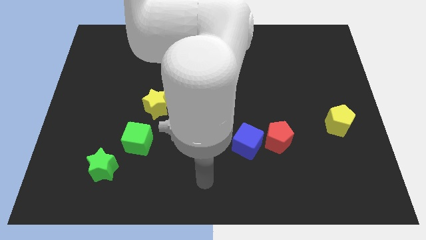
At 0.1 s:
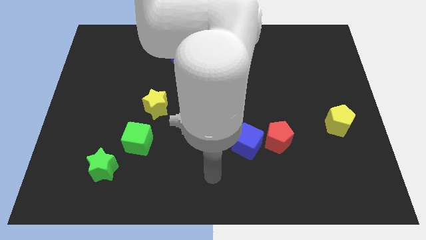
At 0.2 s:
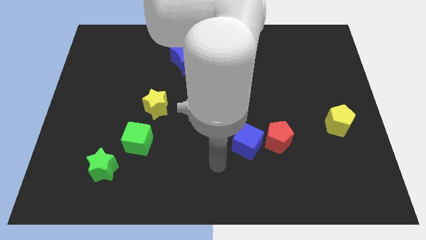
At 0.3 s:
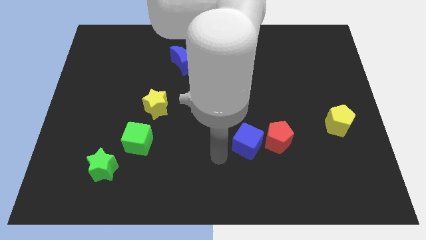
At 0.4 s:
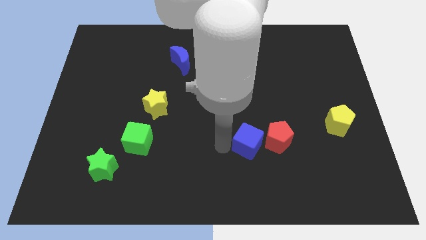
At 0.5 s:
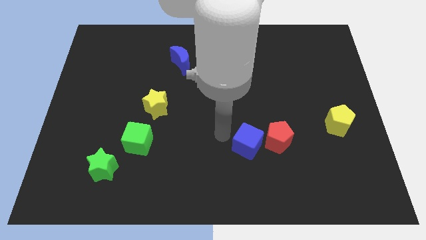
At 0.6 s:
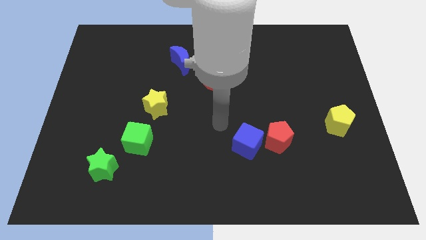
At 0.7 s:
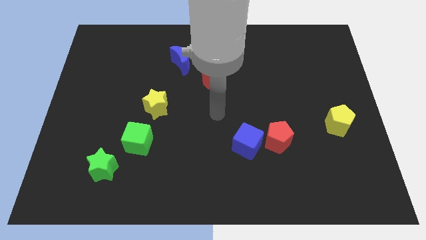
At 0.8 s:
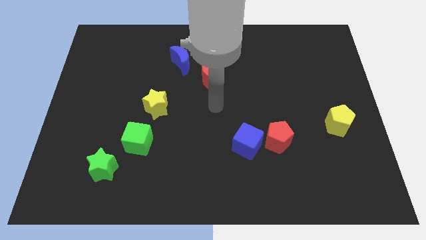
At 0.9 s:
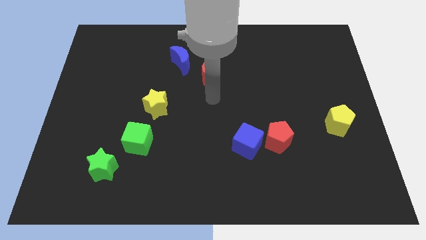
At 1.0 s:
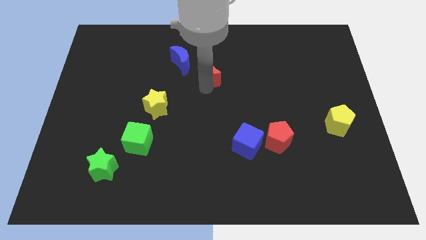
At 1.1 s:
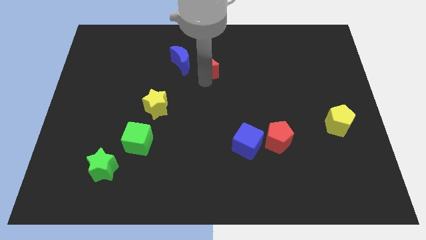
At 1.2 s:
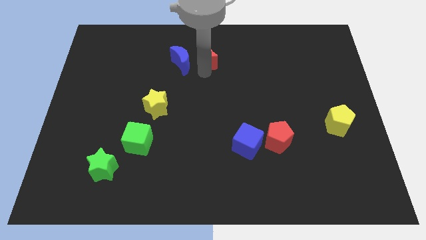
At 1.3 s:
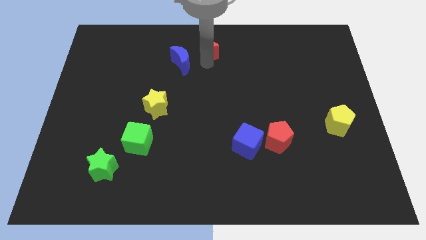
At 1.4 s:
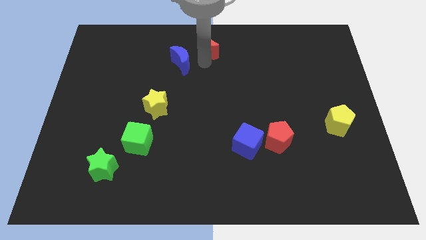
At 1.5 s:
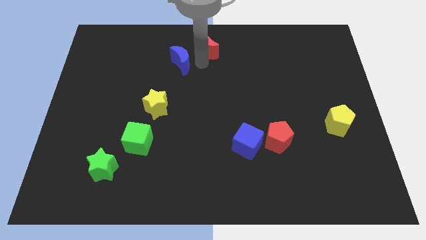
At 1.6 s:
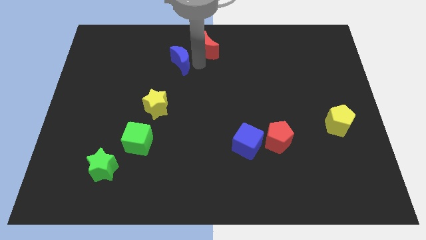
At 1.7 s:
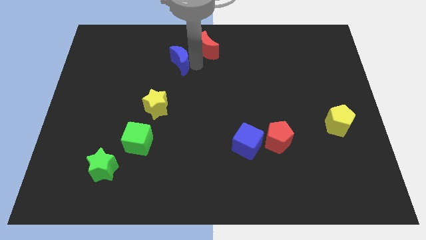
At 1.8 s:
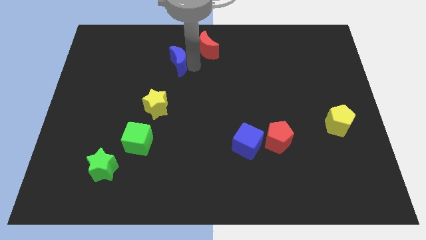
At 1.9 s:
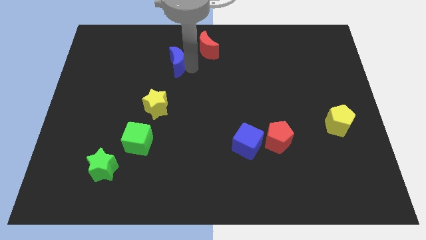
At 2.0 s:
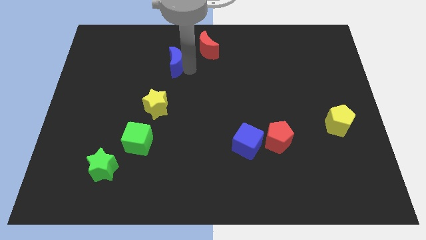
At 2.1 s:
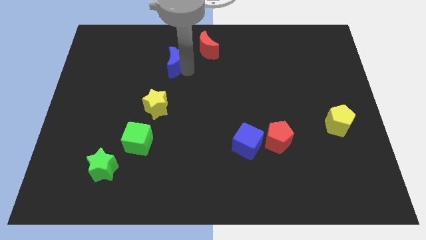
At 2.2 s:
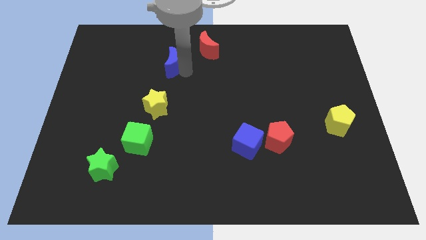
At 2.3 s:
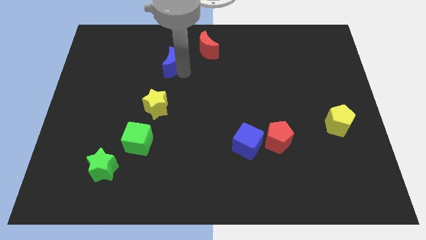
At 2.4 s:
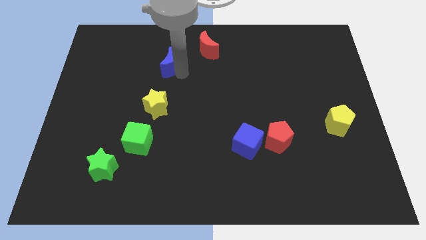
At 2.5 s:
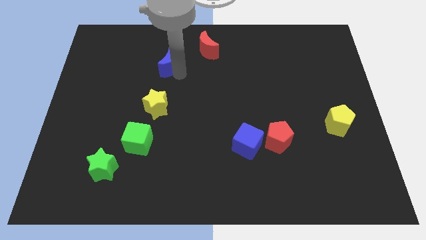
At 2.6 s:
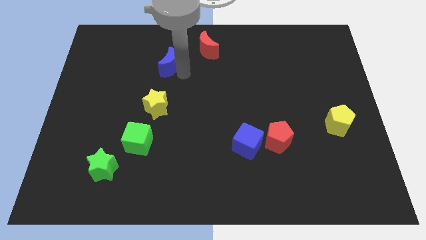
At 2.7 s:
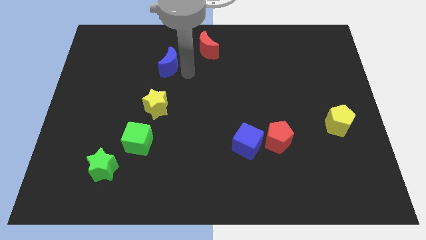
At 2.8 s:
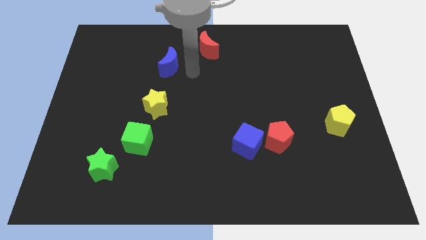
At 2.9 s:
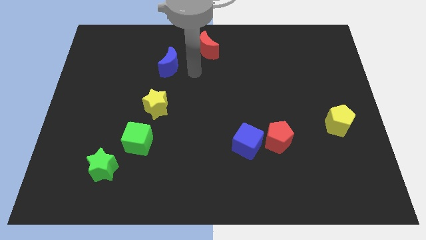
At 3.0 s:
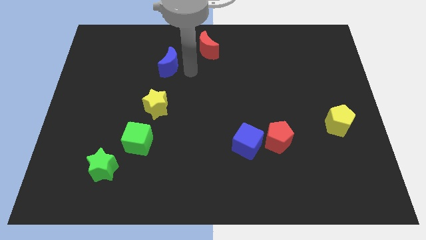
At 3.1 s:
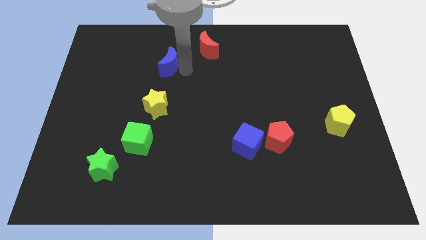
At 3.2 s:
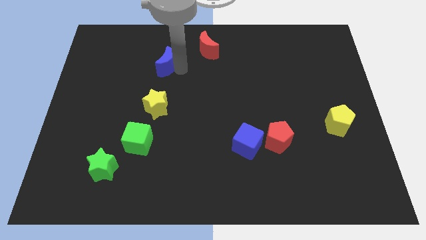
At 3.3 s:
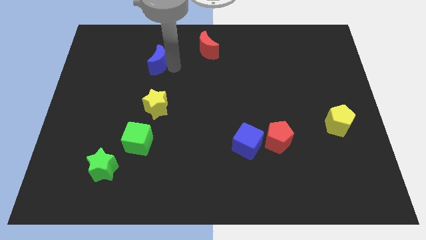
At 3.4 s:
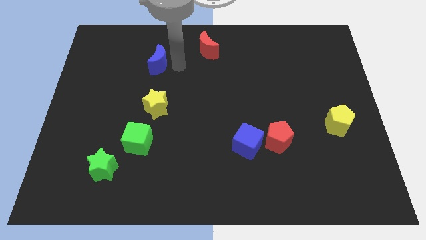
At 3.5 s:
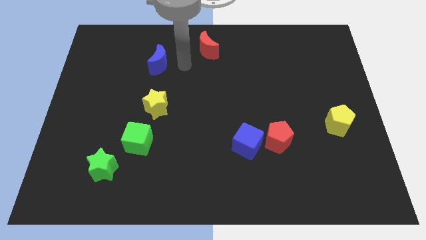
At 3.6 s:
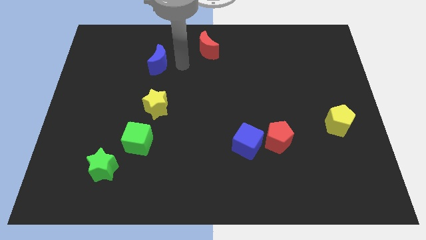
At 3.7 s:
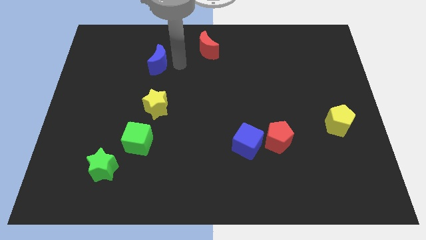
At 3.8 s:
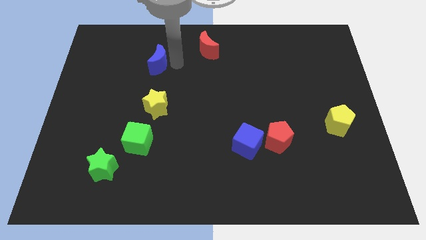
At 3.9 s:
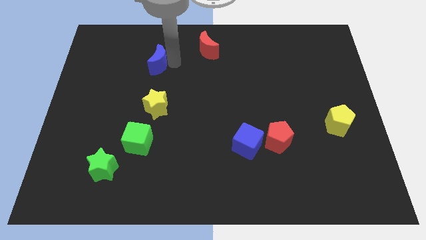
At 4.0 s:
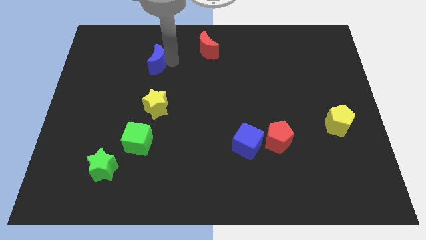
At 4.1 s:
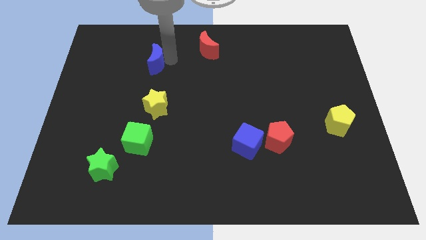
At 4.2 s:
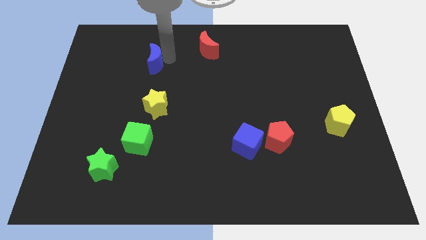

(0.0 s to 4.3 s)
slide the blue moon a bit left

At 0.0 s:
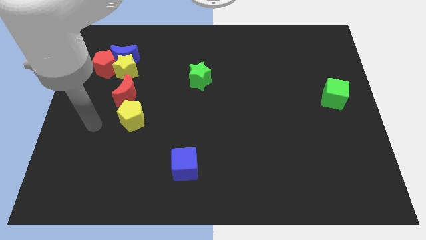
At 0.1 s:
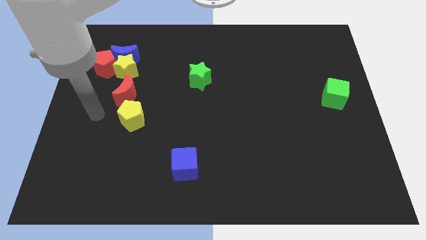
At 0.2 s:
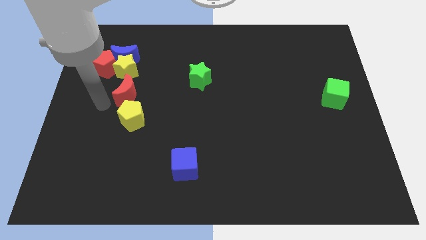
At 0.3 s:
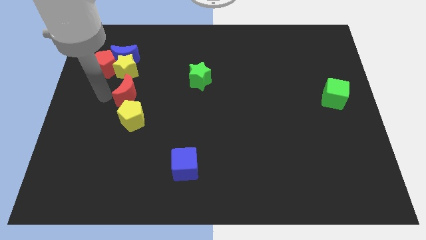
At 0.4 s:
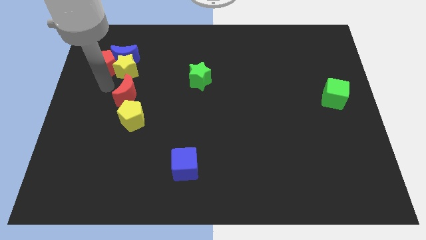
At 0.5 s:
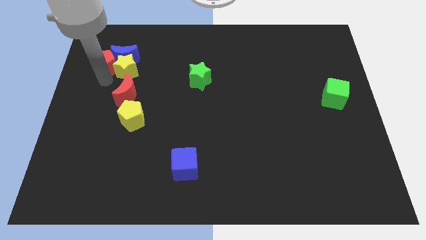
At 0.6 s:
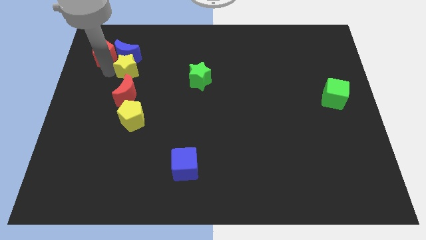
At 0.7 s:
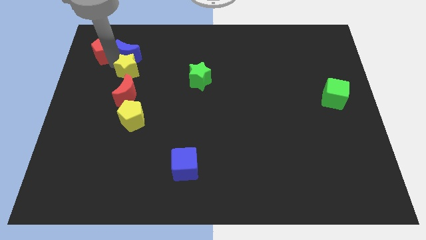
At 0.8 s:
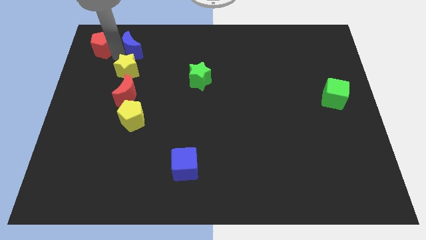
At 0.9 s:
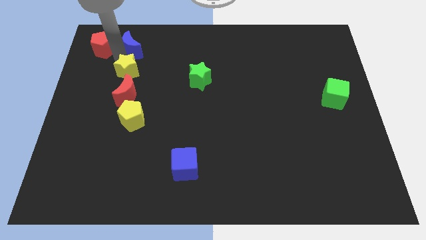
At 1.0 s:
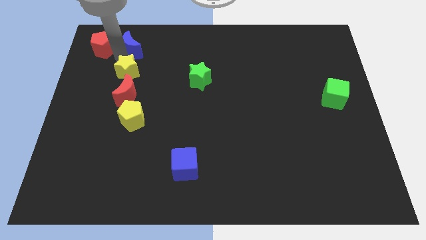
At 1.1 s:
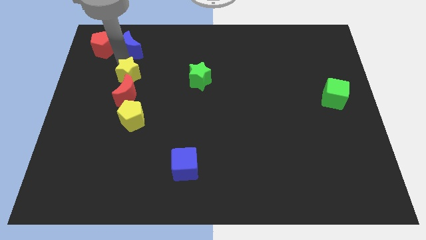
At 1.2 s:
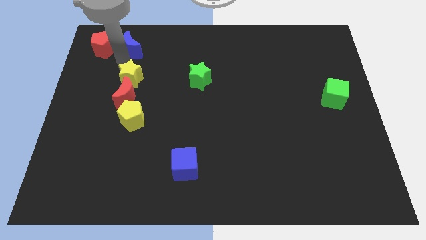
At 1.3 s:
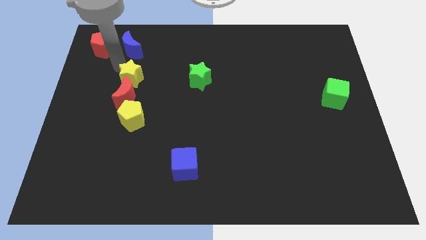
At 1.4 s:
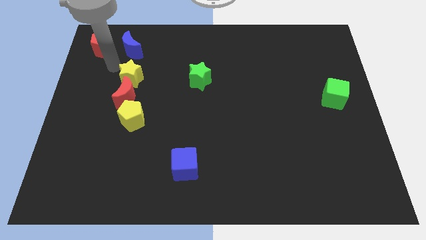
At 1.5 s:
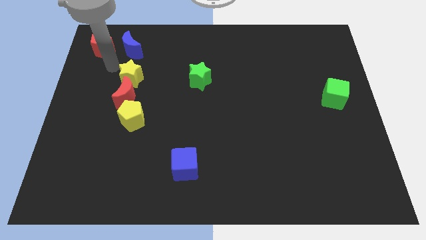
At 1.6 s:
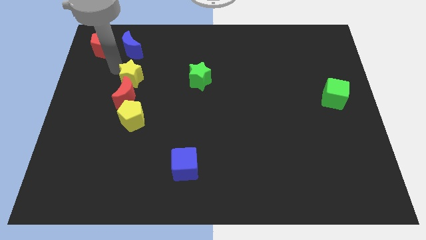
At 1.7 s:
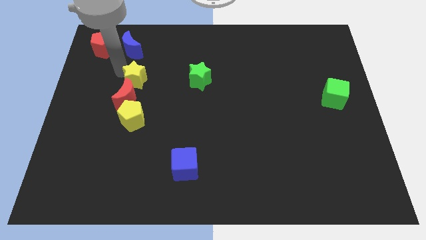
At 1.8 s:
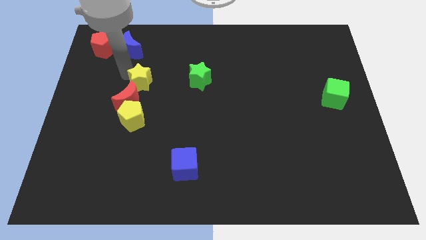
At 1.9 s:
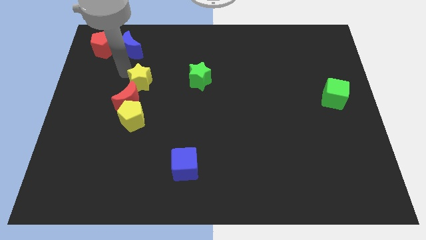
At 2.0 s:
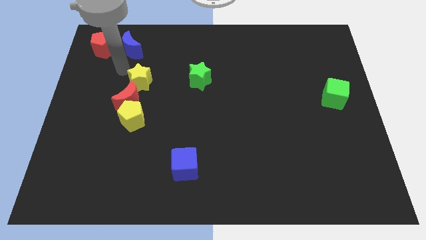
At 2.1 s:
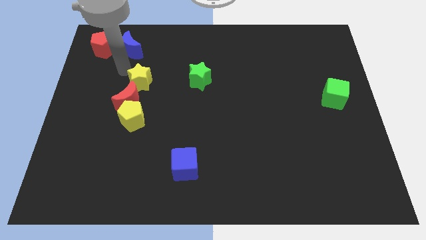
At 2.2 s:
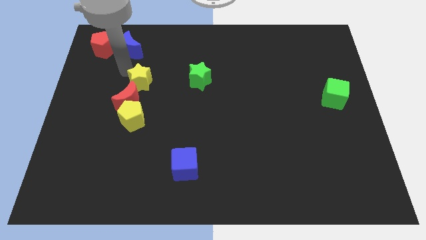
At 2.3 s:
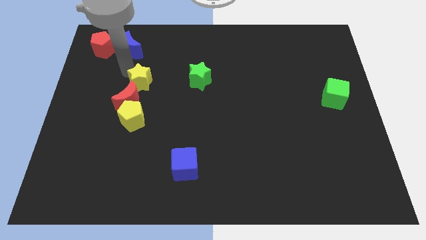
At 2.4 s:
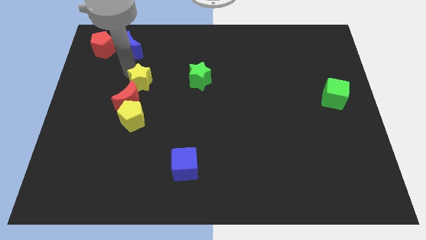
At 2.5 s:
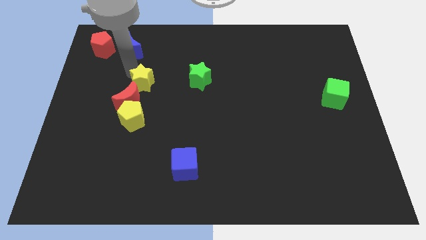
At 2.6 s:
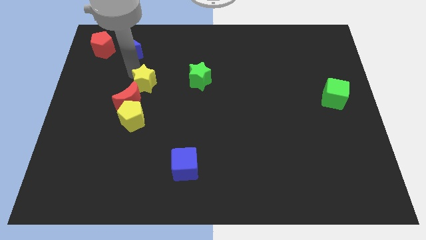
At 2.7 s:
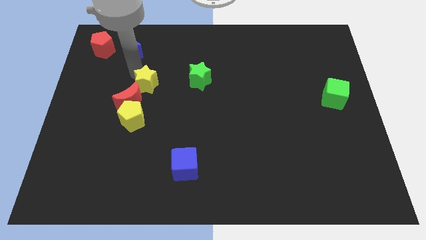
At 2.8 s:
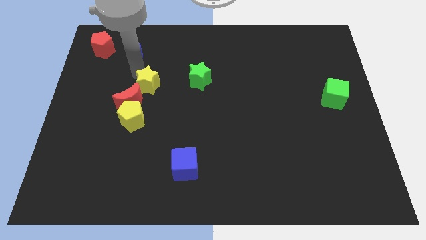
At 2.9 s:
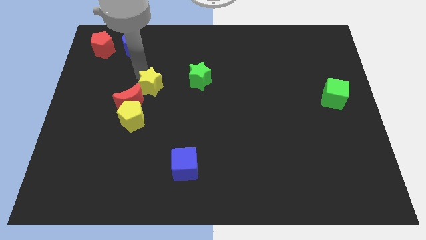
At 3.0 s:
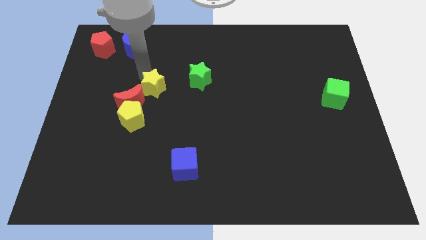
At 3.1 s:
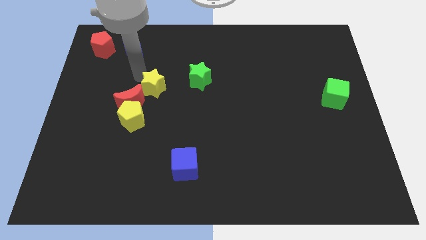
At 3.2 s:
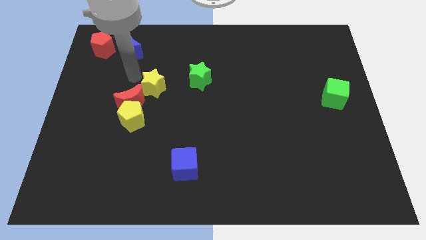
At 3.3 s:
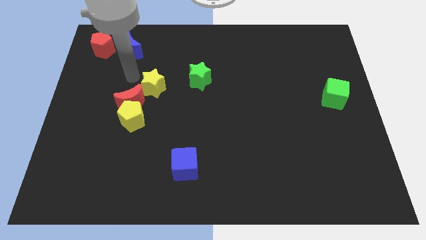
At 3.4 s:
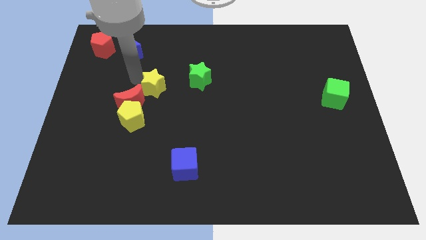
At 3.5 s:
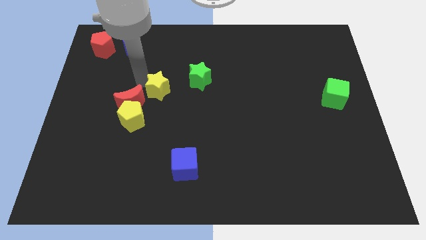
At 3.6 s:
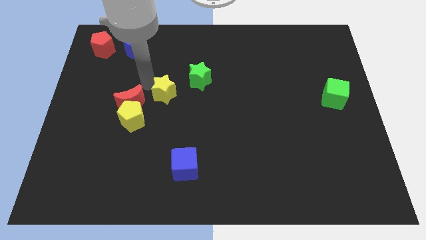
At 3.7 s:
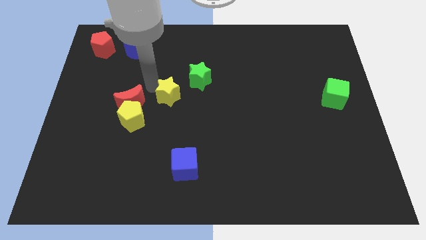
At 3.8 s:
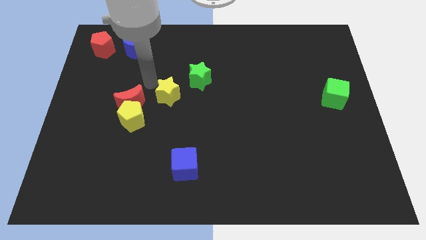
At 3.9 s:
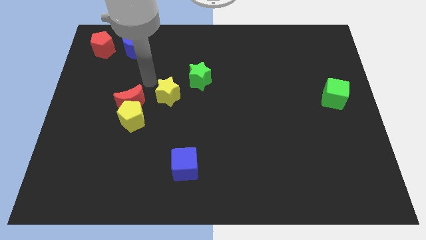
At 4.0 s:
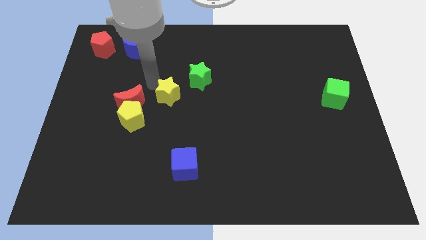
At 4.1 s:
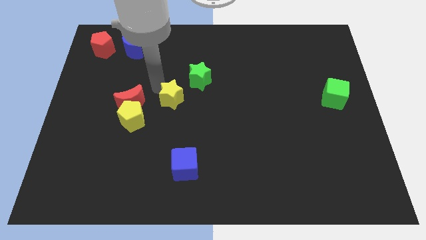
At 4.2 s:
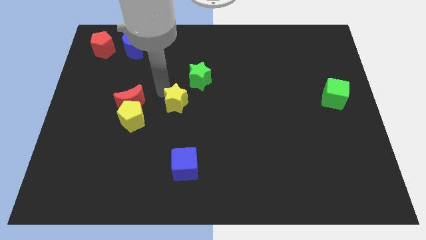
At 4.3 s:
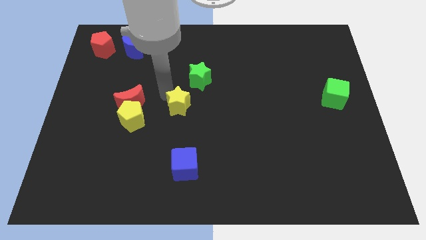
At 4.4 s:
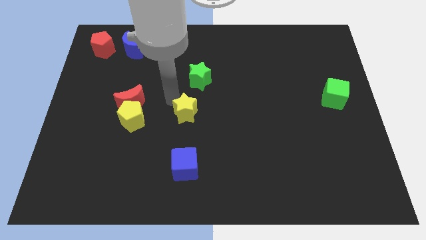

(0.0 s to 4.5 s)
move the yellow star diagonally down and right
